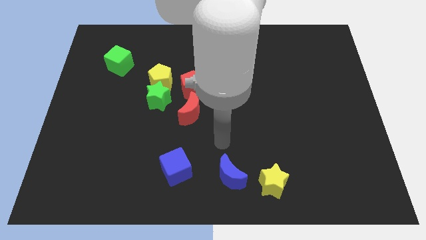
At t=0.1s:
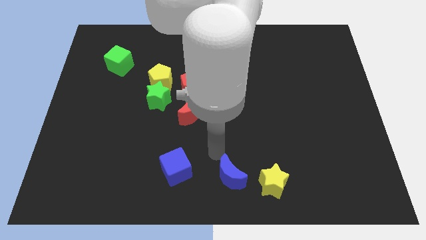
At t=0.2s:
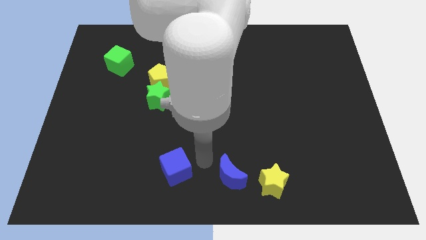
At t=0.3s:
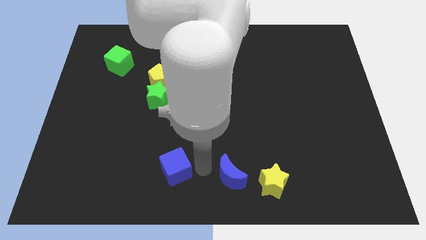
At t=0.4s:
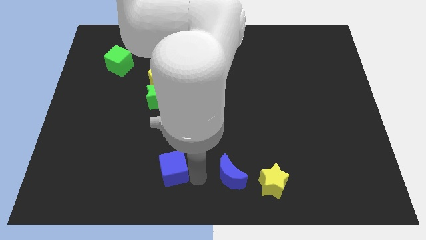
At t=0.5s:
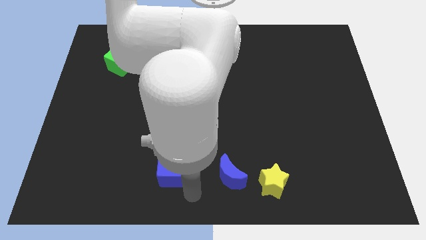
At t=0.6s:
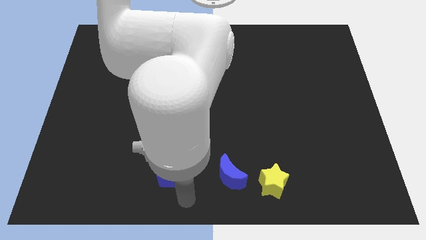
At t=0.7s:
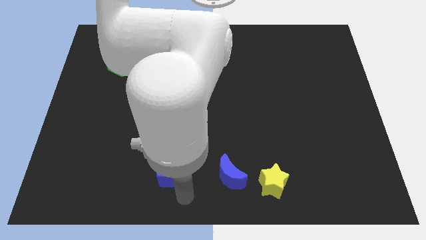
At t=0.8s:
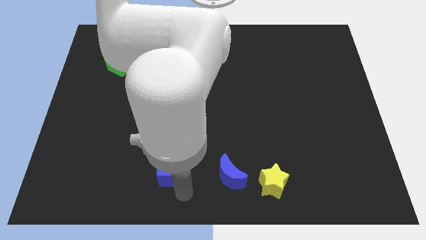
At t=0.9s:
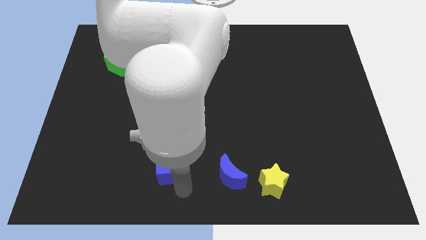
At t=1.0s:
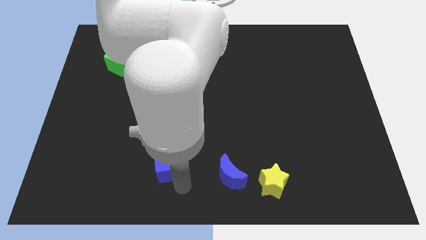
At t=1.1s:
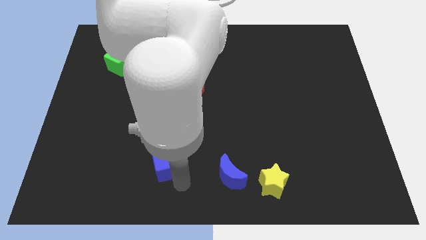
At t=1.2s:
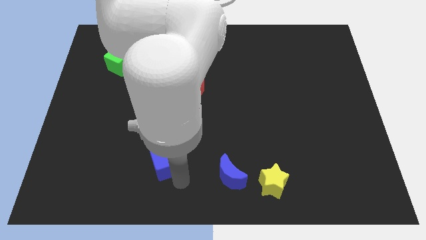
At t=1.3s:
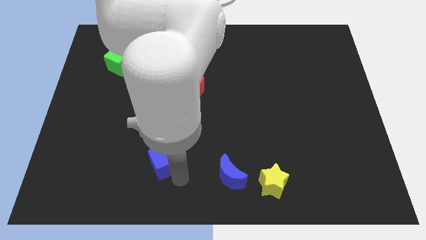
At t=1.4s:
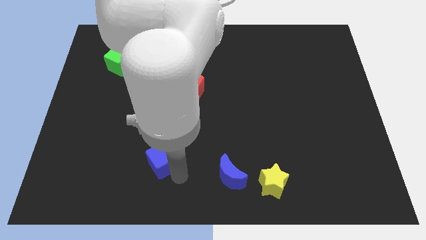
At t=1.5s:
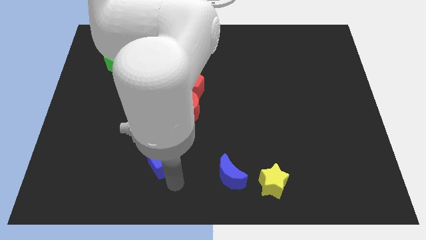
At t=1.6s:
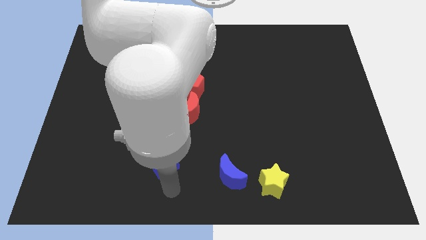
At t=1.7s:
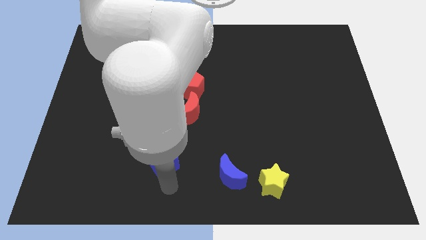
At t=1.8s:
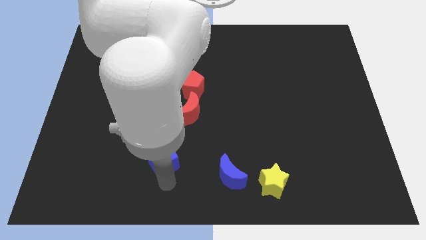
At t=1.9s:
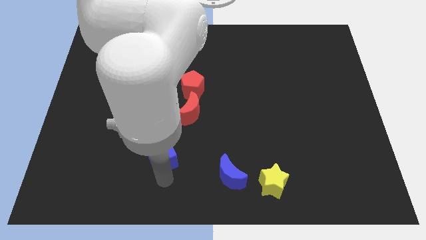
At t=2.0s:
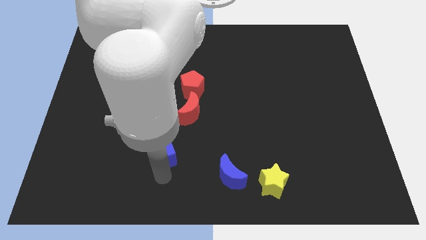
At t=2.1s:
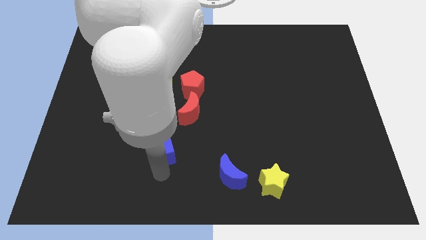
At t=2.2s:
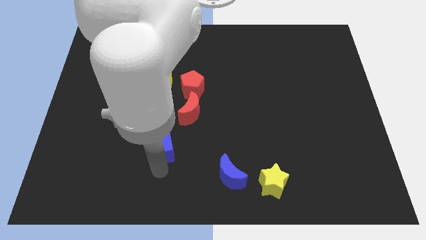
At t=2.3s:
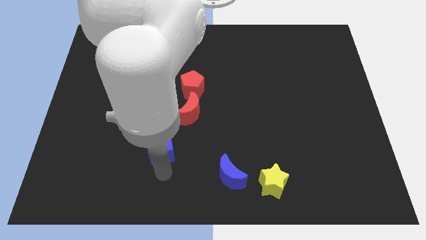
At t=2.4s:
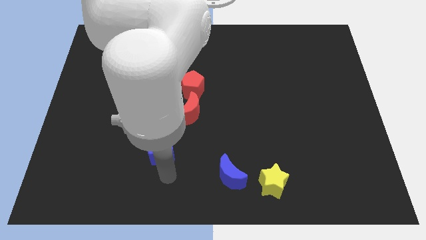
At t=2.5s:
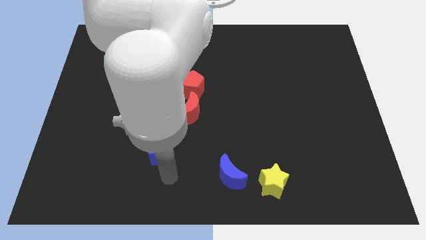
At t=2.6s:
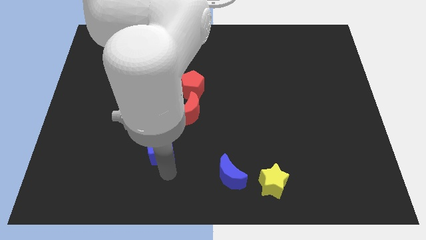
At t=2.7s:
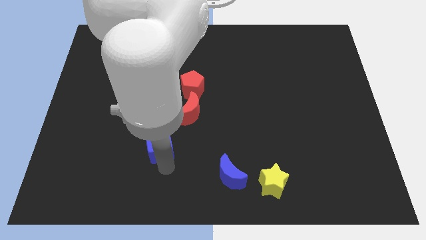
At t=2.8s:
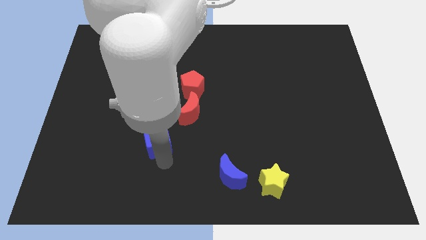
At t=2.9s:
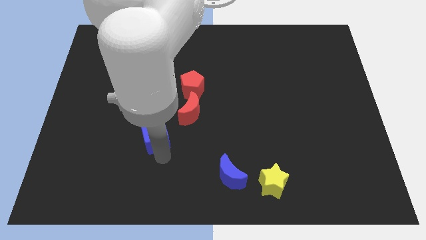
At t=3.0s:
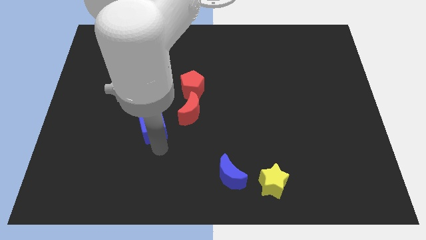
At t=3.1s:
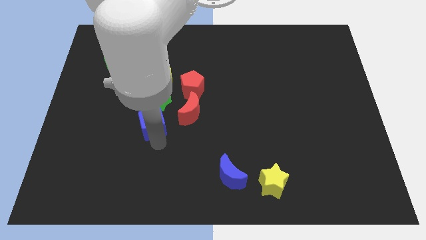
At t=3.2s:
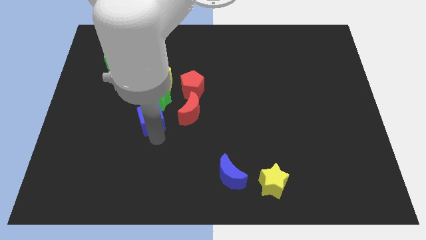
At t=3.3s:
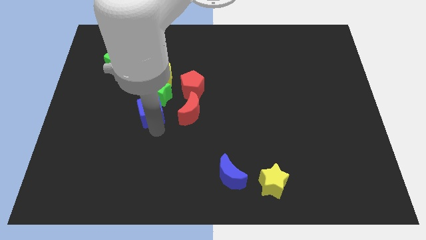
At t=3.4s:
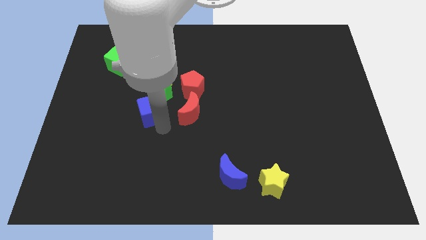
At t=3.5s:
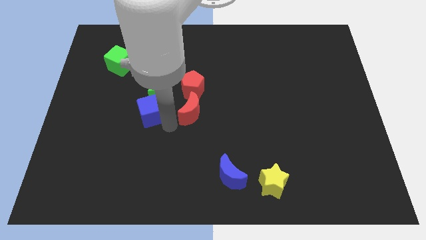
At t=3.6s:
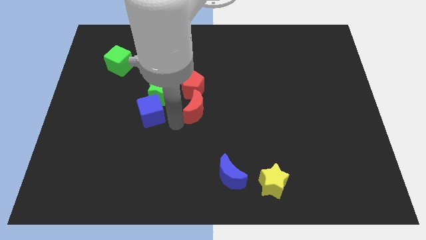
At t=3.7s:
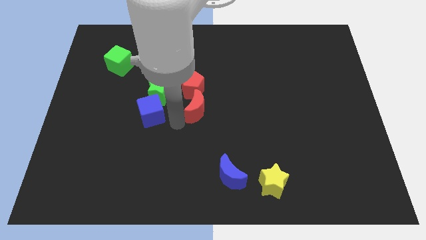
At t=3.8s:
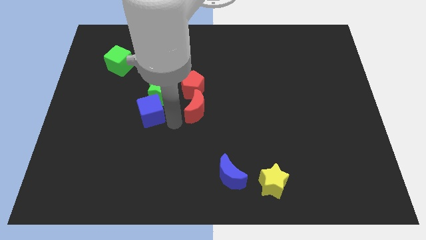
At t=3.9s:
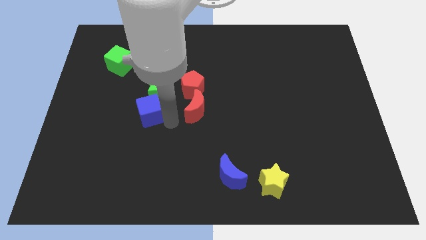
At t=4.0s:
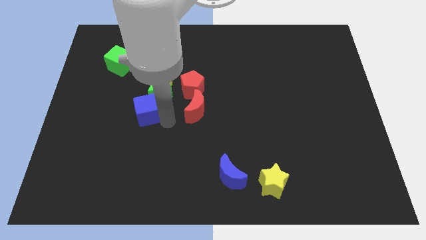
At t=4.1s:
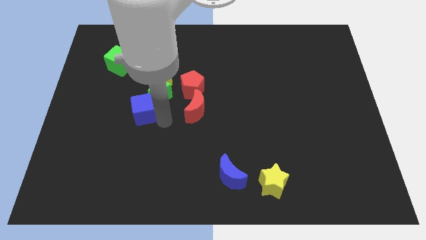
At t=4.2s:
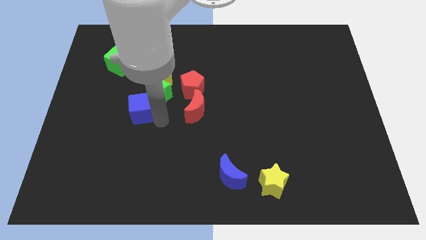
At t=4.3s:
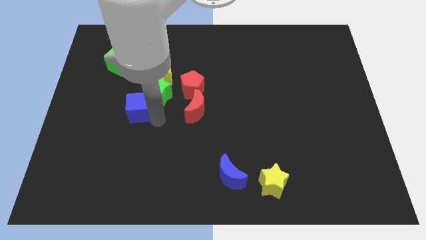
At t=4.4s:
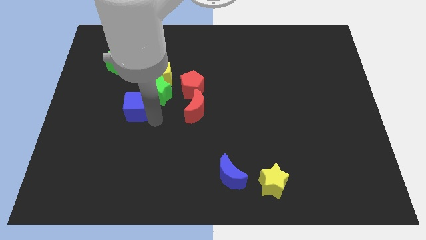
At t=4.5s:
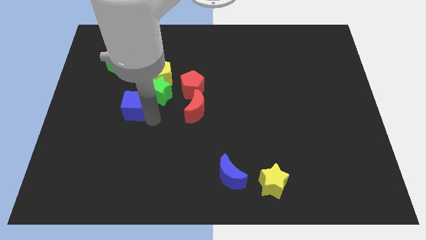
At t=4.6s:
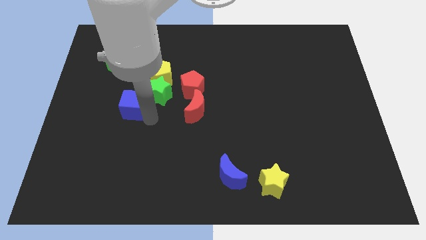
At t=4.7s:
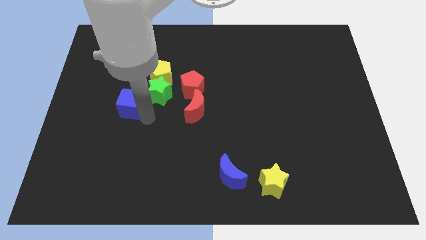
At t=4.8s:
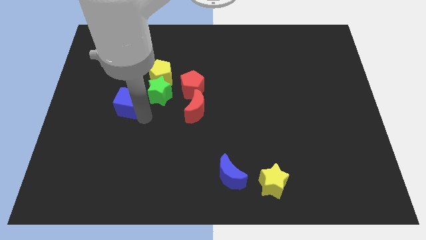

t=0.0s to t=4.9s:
push the blue cube below the green cube

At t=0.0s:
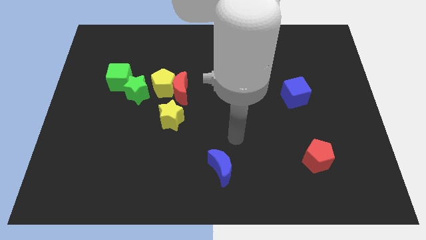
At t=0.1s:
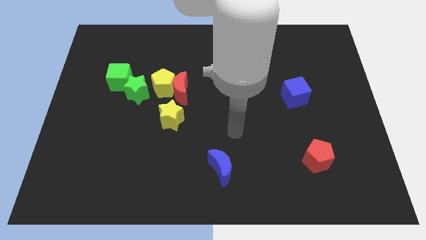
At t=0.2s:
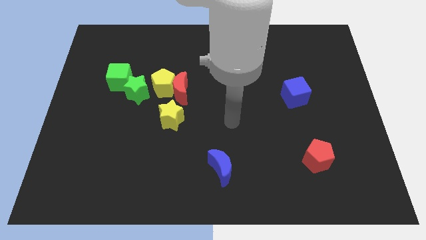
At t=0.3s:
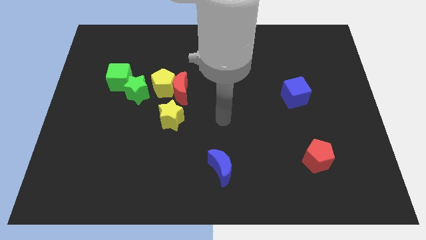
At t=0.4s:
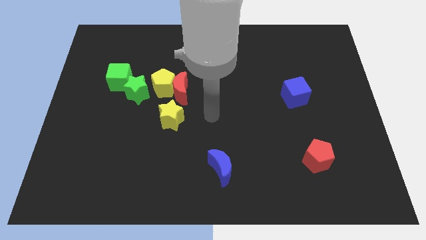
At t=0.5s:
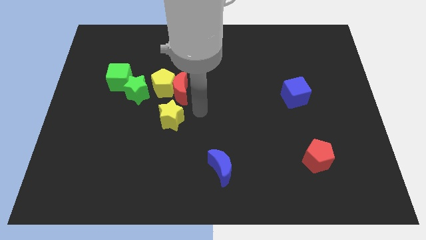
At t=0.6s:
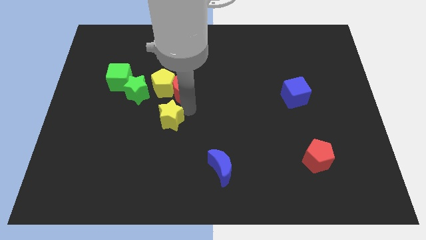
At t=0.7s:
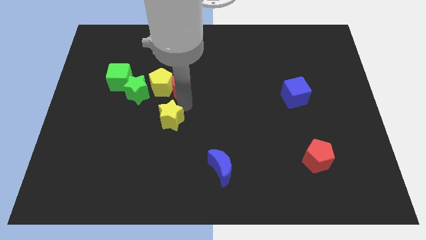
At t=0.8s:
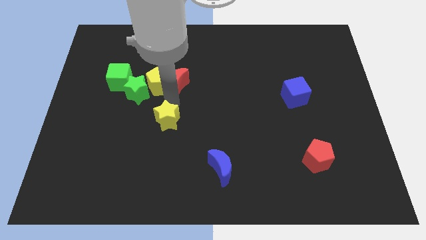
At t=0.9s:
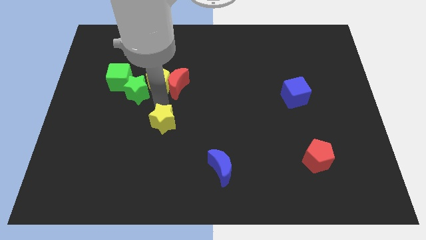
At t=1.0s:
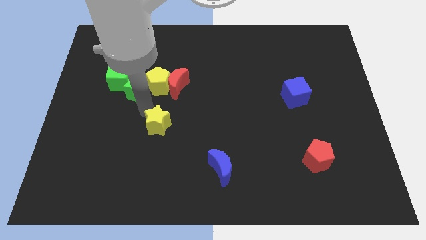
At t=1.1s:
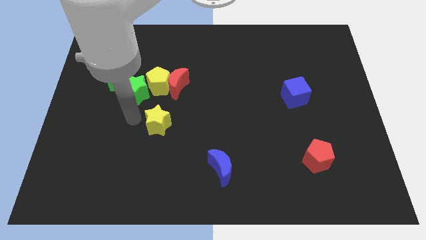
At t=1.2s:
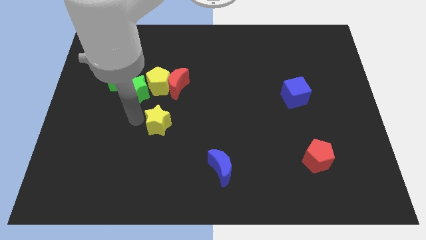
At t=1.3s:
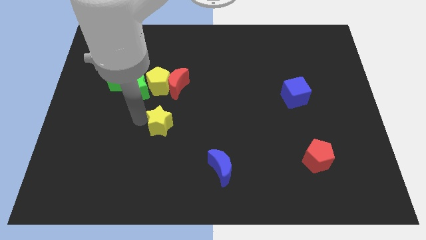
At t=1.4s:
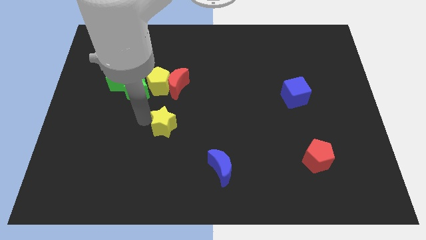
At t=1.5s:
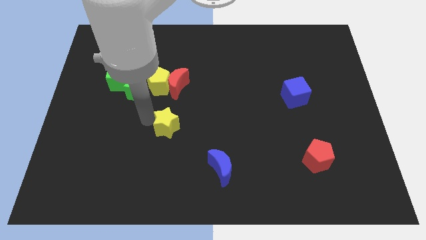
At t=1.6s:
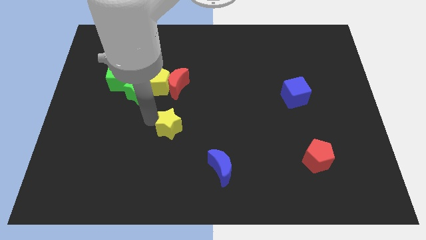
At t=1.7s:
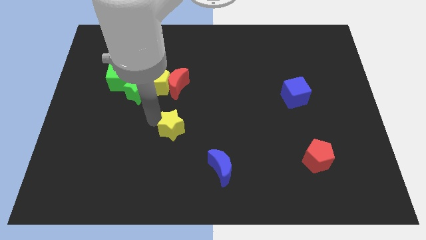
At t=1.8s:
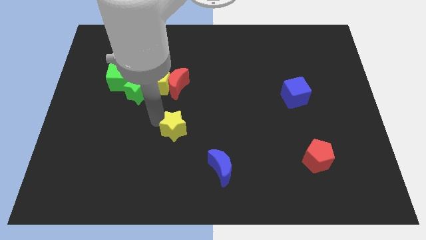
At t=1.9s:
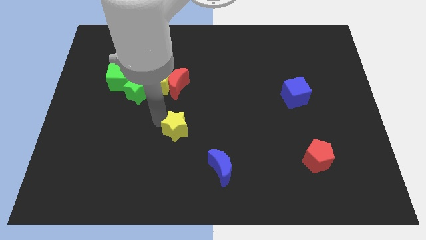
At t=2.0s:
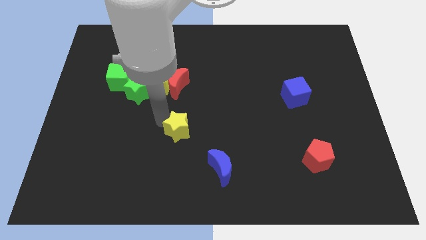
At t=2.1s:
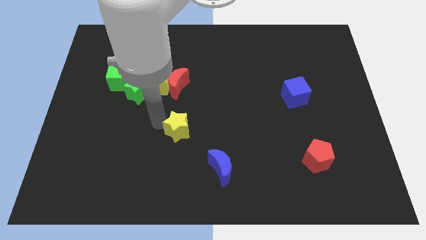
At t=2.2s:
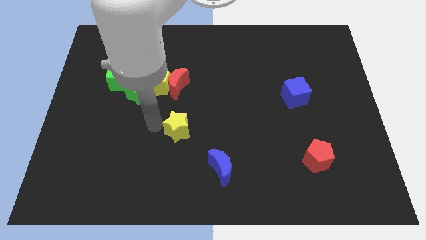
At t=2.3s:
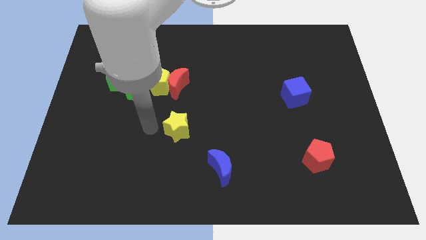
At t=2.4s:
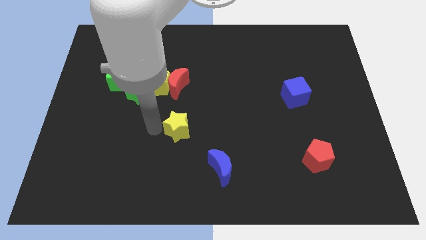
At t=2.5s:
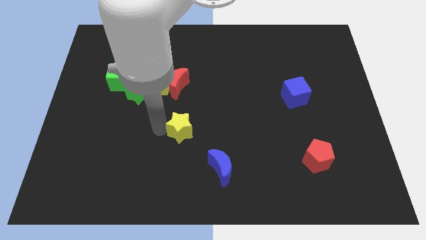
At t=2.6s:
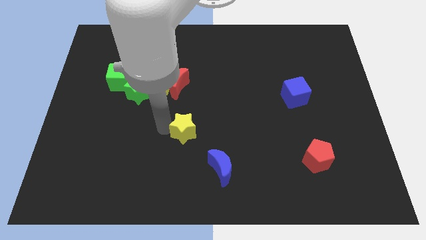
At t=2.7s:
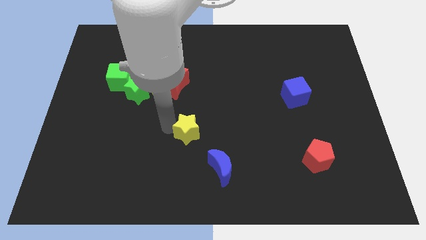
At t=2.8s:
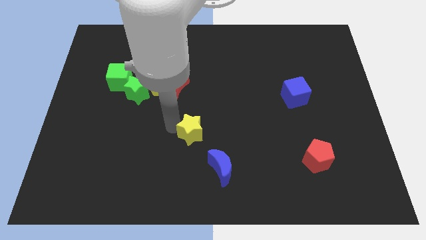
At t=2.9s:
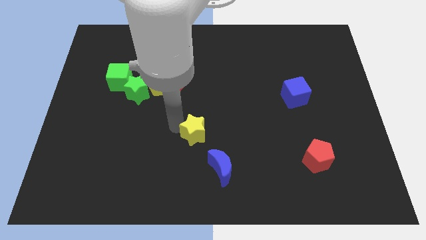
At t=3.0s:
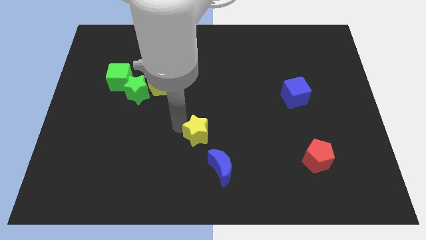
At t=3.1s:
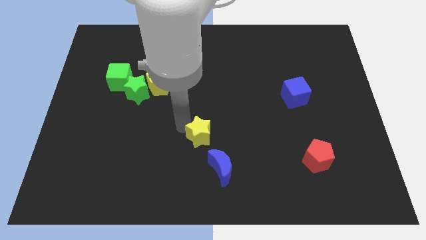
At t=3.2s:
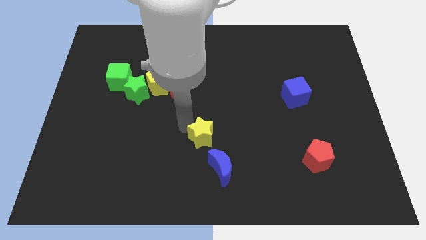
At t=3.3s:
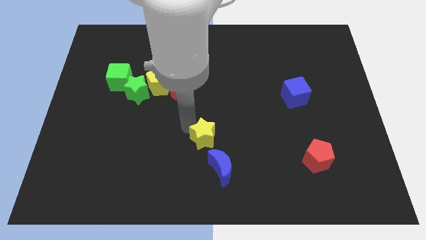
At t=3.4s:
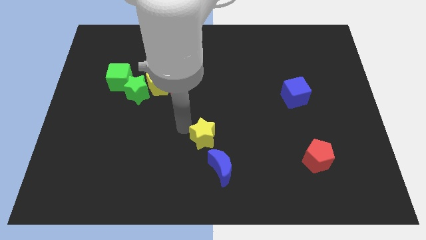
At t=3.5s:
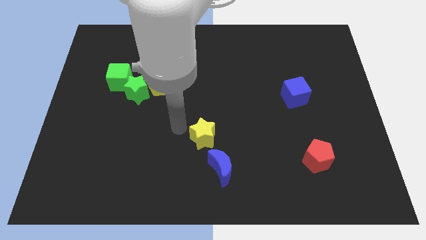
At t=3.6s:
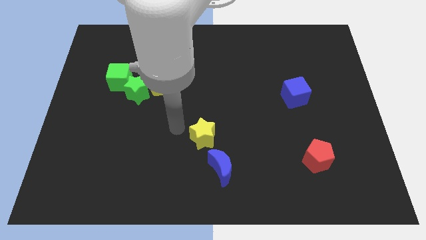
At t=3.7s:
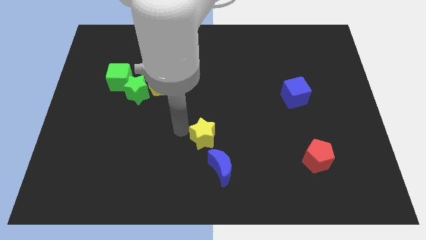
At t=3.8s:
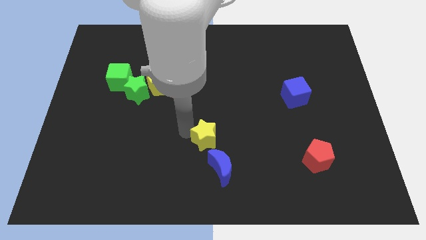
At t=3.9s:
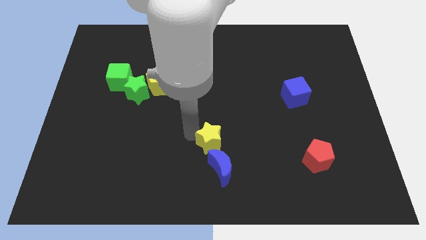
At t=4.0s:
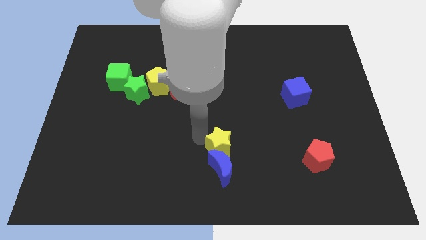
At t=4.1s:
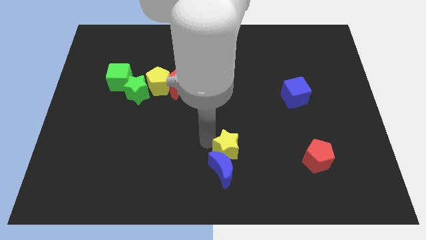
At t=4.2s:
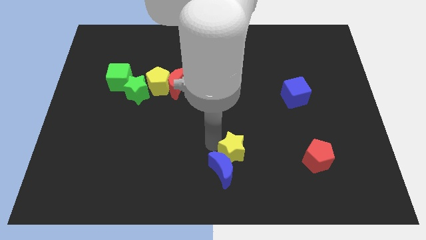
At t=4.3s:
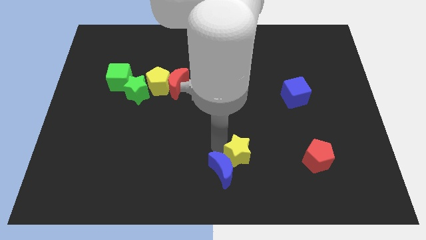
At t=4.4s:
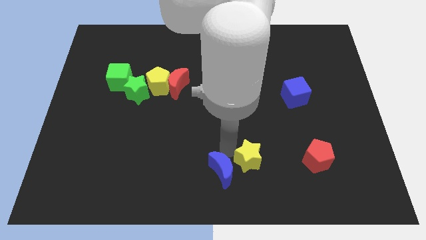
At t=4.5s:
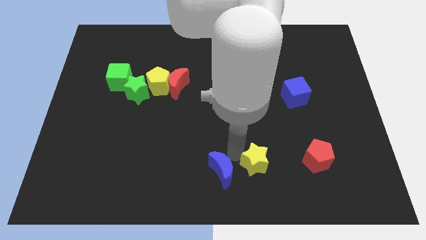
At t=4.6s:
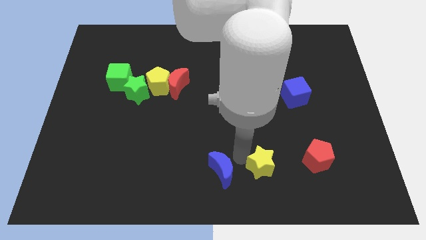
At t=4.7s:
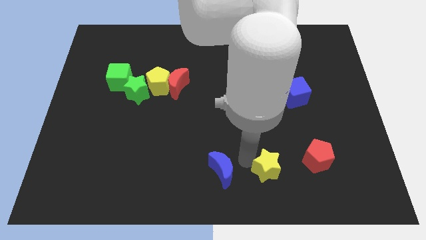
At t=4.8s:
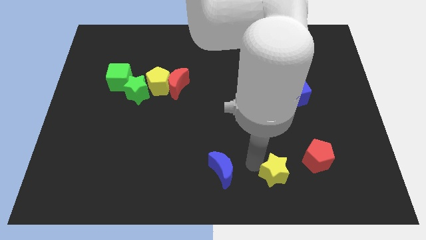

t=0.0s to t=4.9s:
slide the yellow star diagonally down and to the left of the red pentagon
